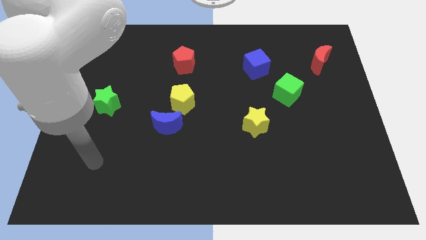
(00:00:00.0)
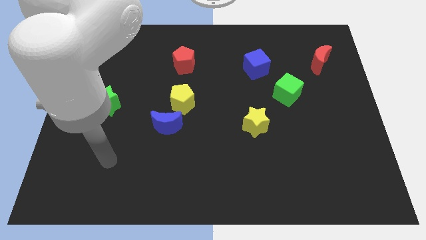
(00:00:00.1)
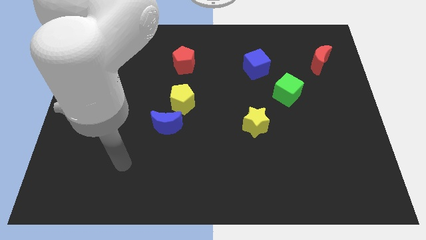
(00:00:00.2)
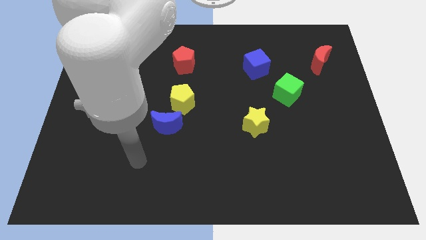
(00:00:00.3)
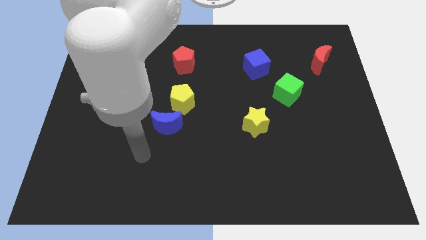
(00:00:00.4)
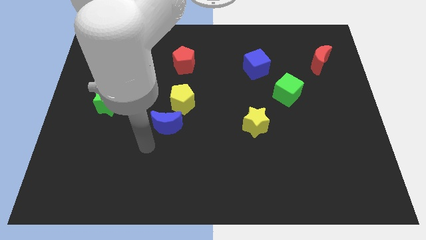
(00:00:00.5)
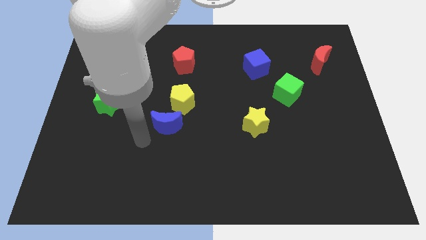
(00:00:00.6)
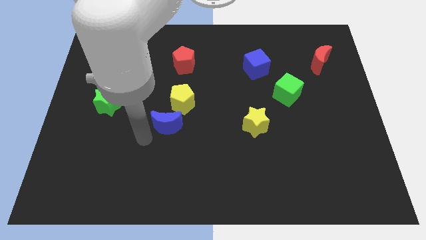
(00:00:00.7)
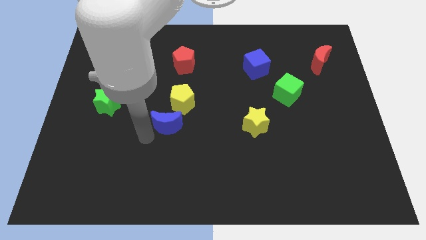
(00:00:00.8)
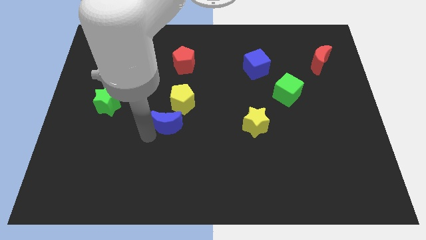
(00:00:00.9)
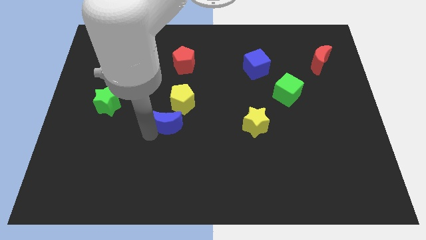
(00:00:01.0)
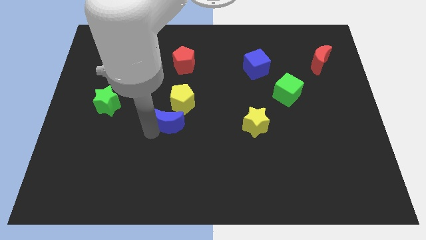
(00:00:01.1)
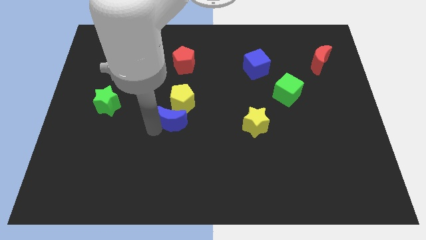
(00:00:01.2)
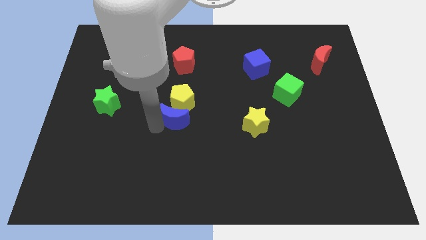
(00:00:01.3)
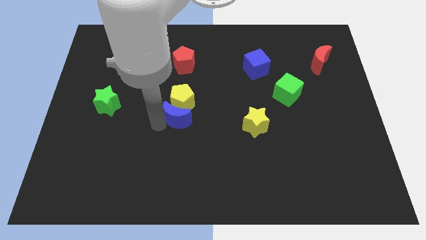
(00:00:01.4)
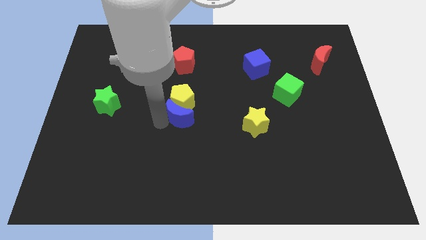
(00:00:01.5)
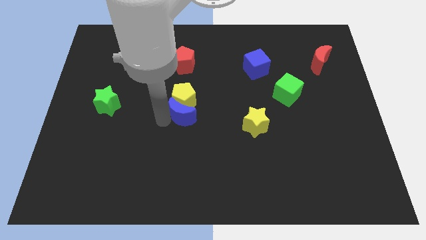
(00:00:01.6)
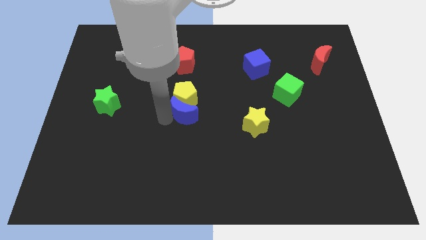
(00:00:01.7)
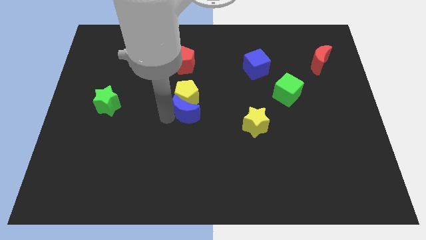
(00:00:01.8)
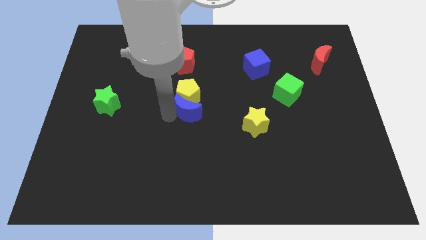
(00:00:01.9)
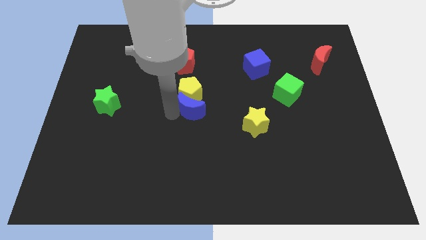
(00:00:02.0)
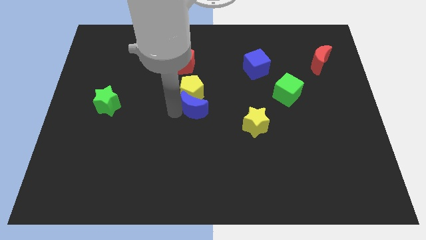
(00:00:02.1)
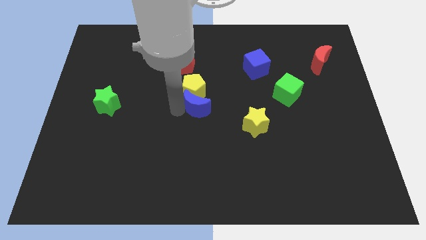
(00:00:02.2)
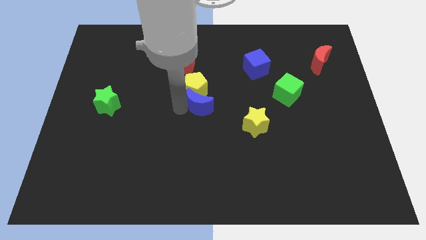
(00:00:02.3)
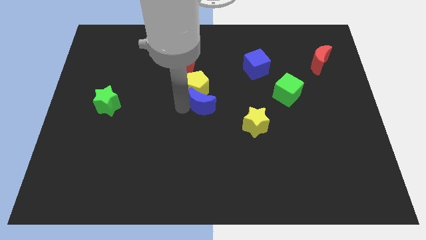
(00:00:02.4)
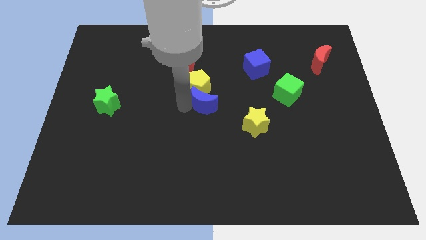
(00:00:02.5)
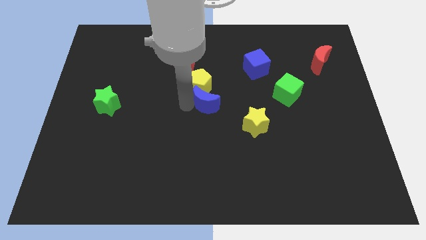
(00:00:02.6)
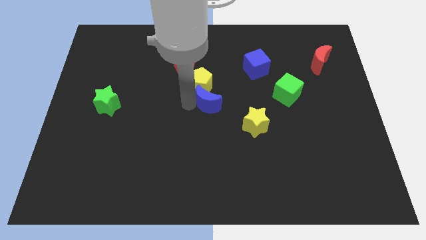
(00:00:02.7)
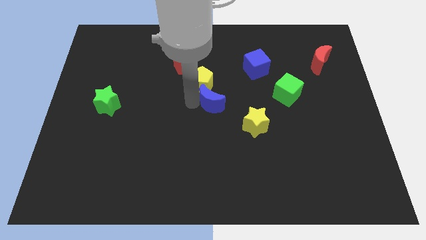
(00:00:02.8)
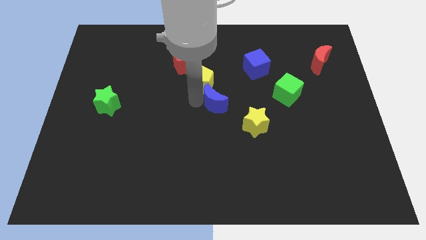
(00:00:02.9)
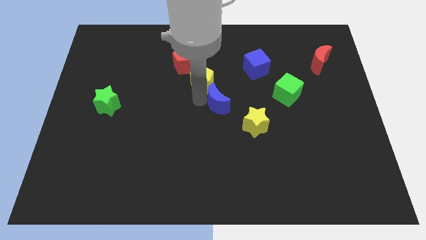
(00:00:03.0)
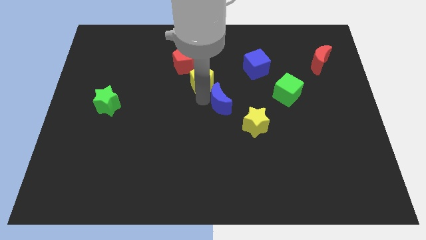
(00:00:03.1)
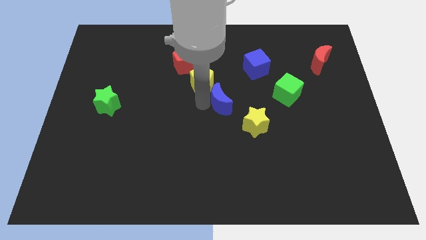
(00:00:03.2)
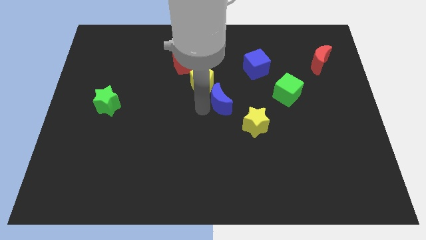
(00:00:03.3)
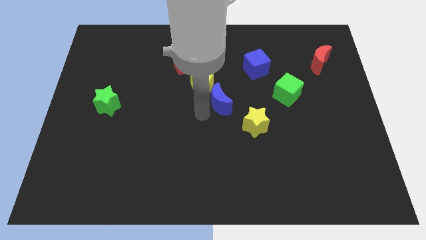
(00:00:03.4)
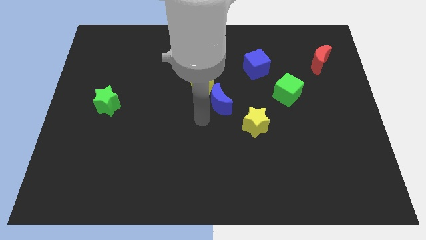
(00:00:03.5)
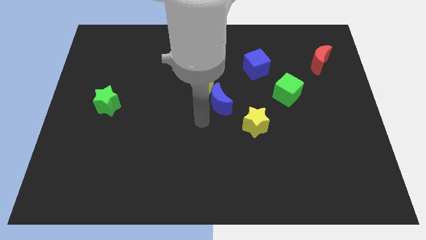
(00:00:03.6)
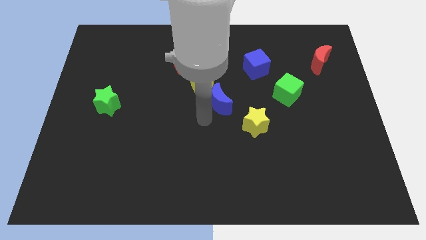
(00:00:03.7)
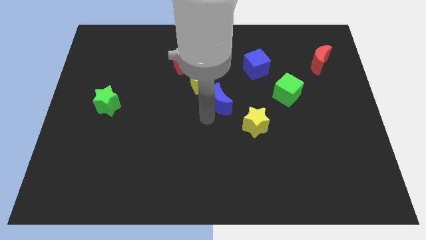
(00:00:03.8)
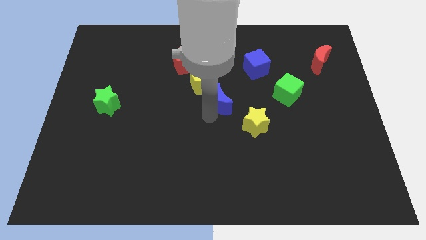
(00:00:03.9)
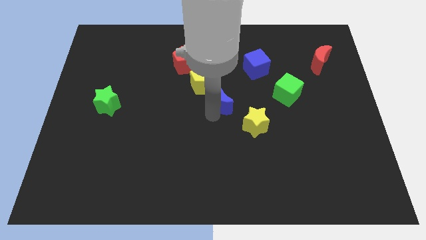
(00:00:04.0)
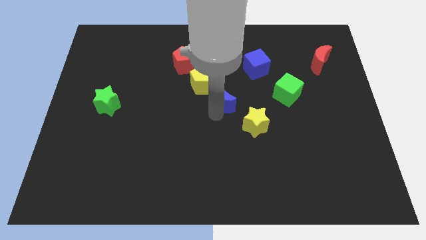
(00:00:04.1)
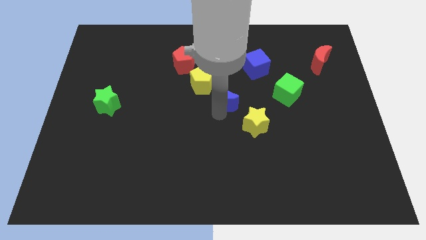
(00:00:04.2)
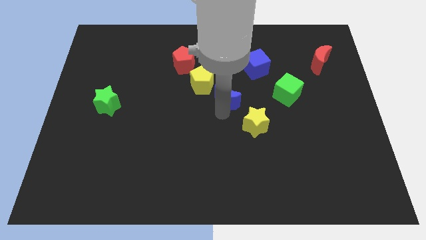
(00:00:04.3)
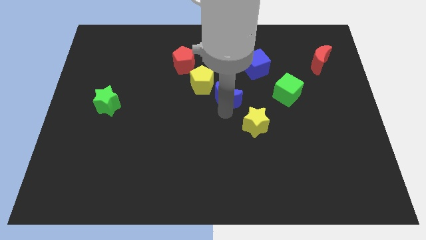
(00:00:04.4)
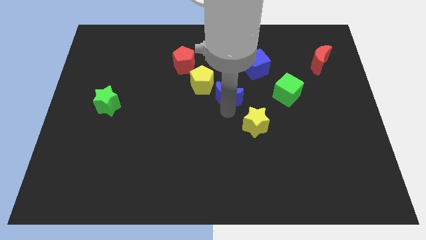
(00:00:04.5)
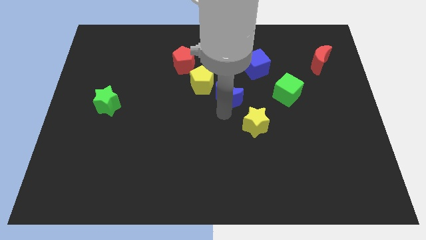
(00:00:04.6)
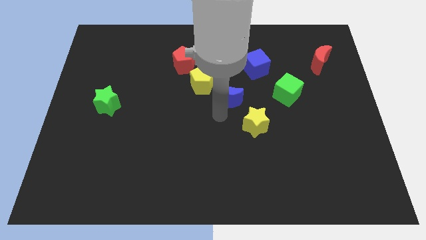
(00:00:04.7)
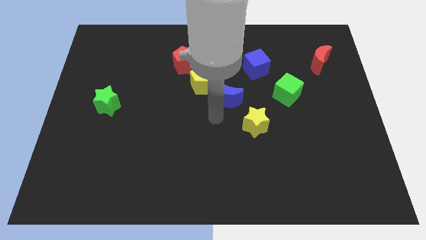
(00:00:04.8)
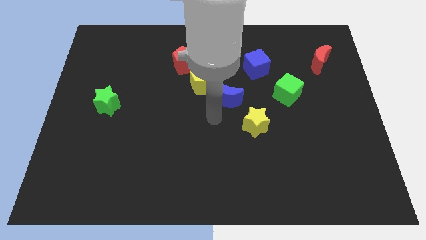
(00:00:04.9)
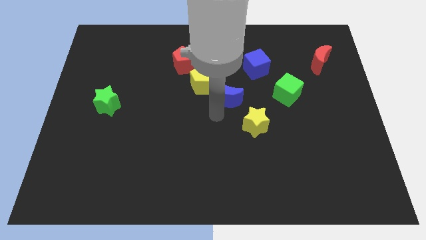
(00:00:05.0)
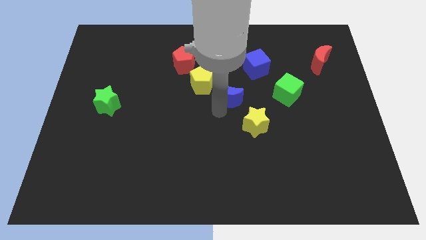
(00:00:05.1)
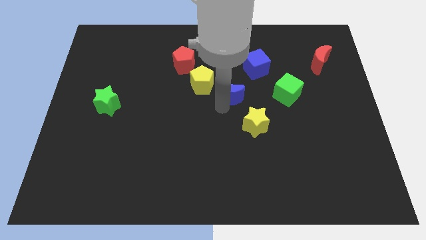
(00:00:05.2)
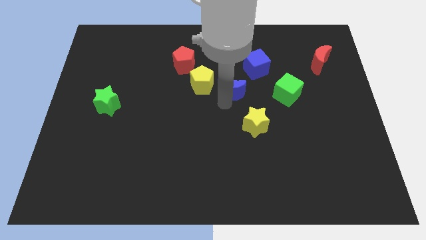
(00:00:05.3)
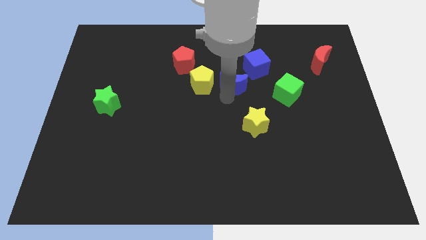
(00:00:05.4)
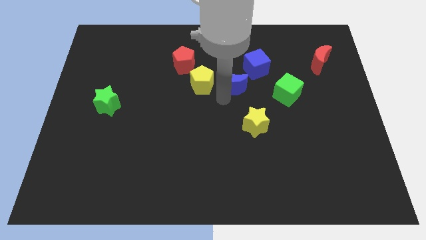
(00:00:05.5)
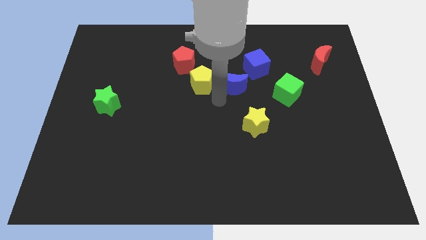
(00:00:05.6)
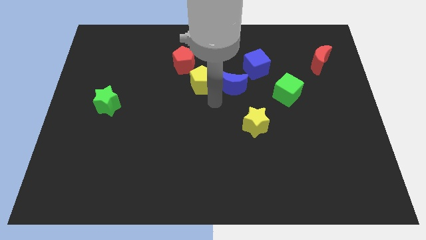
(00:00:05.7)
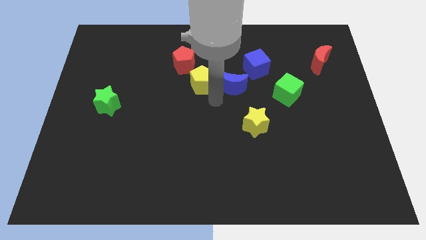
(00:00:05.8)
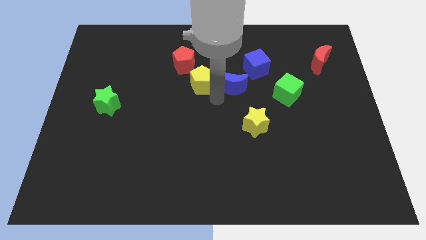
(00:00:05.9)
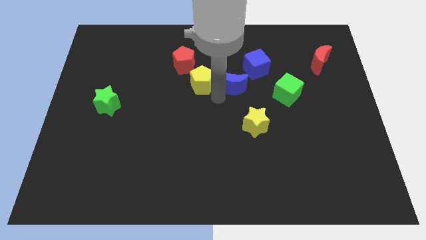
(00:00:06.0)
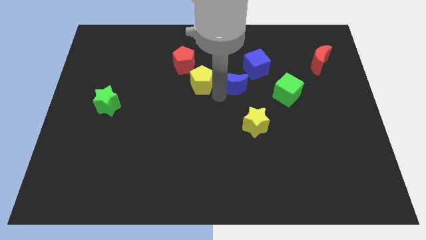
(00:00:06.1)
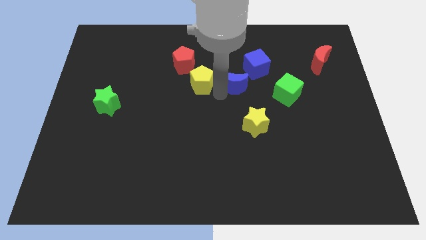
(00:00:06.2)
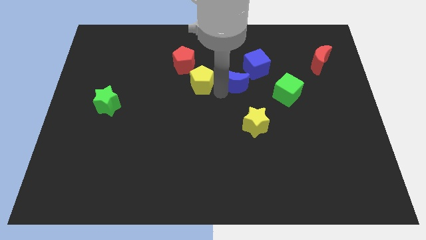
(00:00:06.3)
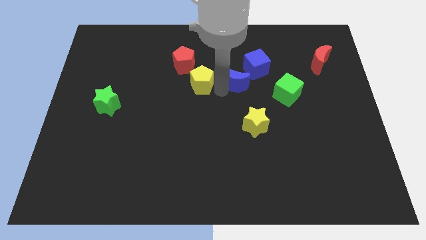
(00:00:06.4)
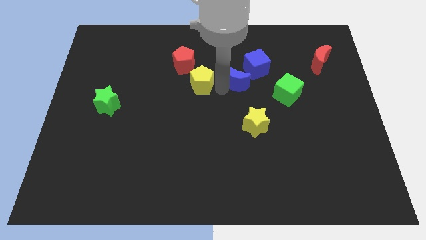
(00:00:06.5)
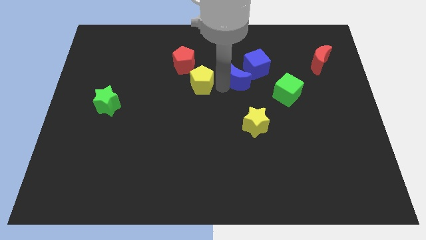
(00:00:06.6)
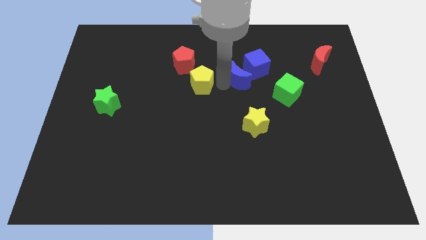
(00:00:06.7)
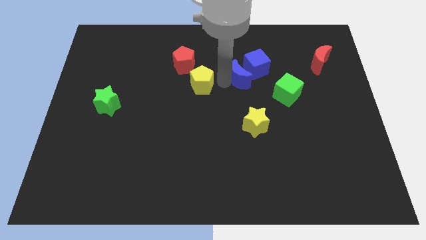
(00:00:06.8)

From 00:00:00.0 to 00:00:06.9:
push the blue moon to the blue cube

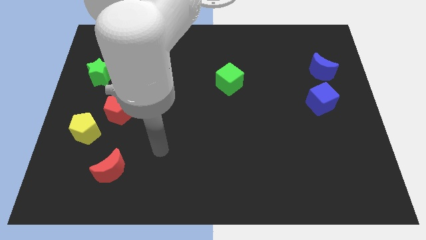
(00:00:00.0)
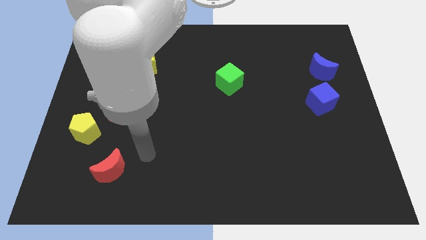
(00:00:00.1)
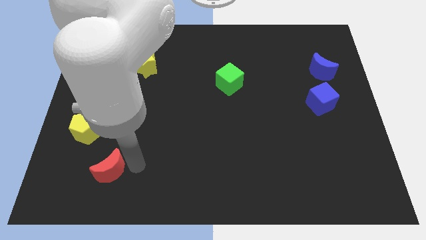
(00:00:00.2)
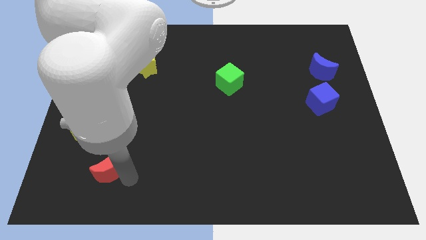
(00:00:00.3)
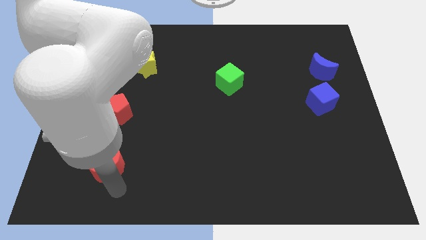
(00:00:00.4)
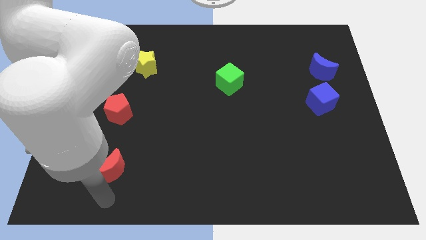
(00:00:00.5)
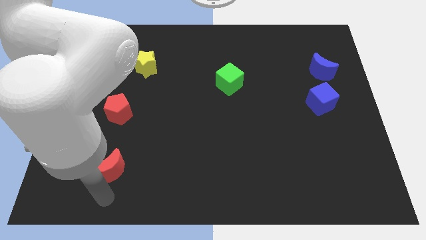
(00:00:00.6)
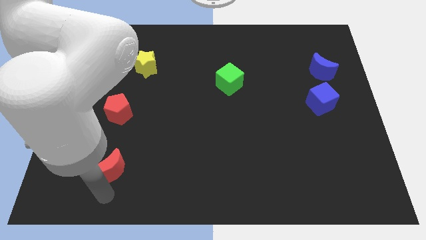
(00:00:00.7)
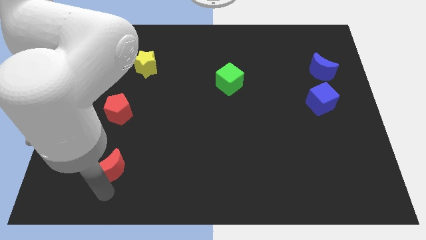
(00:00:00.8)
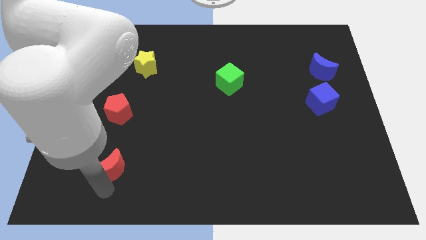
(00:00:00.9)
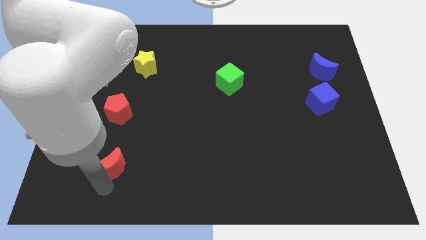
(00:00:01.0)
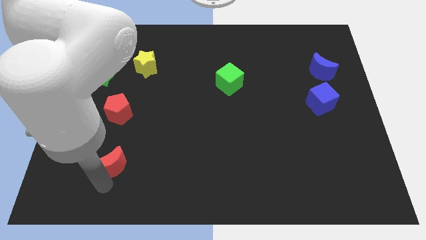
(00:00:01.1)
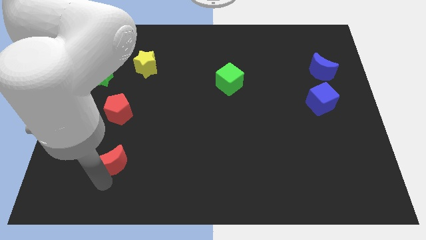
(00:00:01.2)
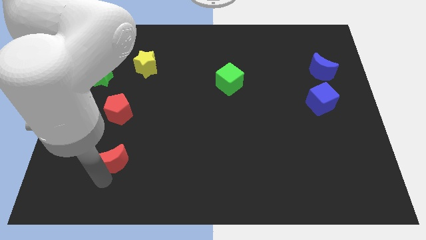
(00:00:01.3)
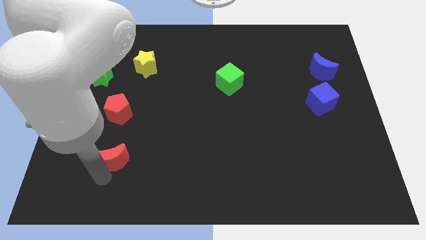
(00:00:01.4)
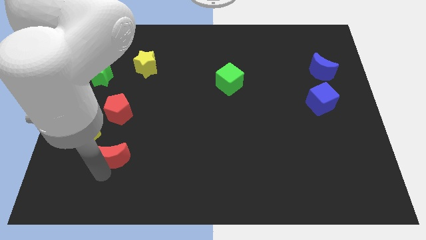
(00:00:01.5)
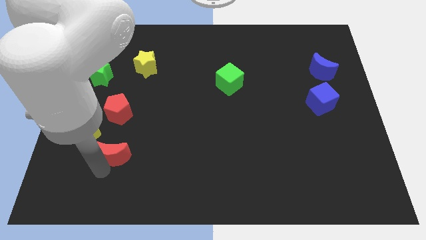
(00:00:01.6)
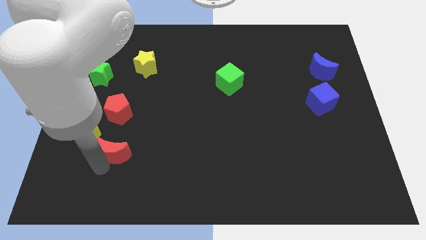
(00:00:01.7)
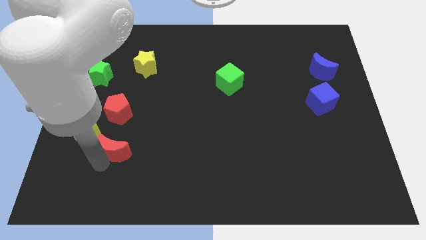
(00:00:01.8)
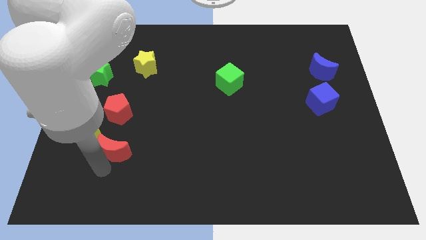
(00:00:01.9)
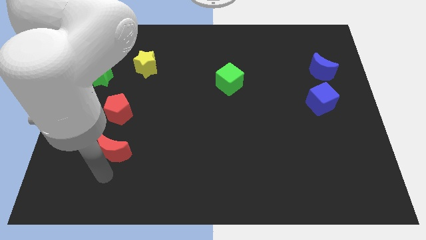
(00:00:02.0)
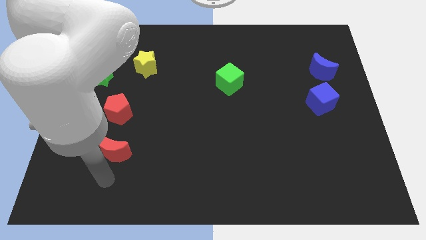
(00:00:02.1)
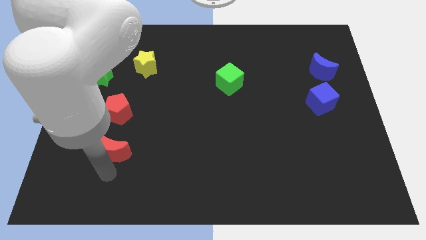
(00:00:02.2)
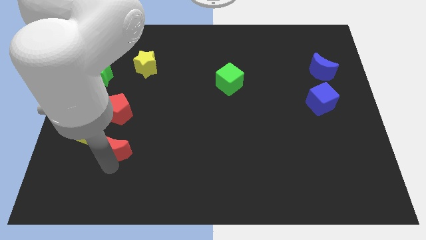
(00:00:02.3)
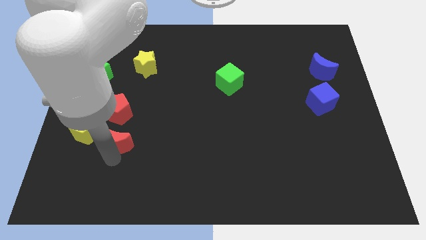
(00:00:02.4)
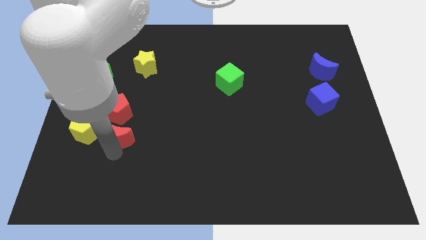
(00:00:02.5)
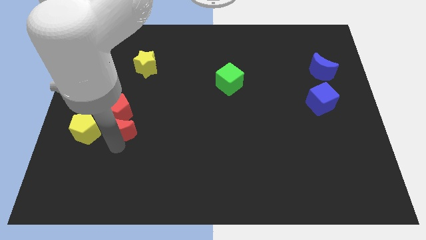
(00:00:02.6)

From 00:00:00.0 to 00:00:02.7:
push the red moon next to the red pentagon
